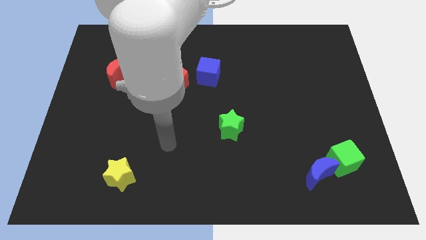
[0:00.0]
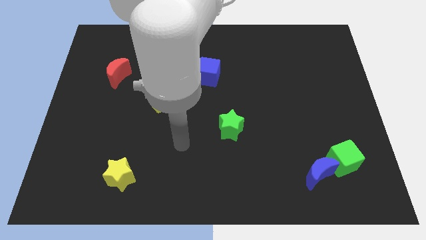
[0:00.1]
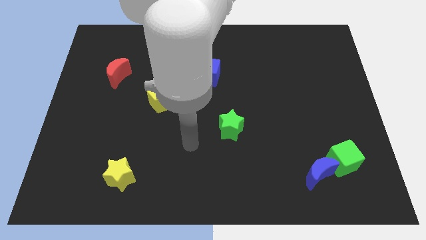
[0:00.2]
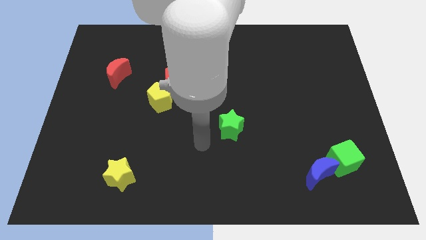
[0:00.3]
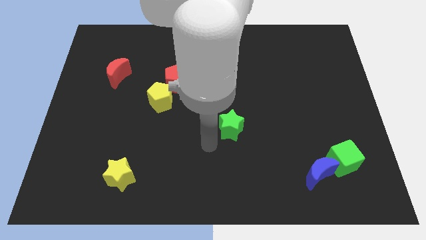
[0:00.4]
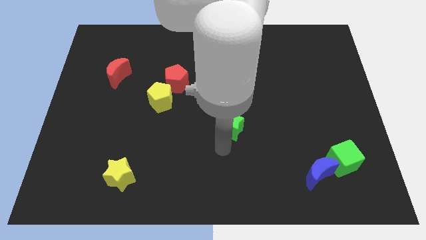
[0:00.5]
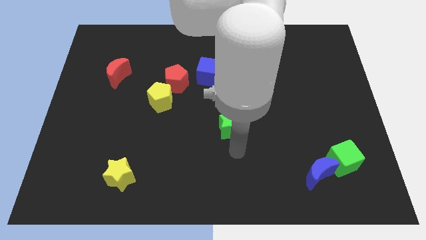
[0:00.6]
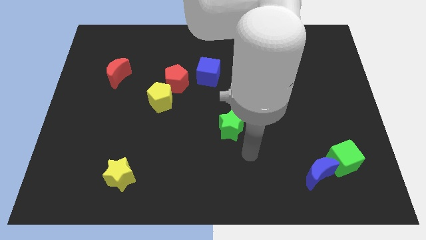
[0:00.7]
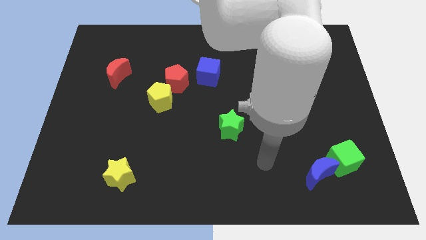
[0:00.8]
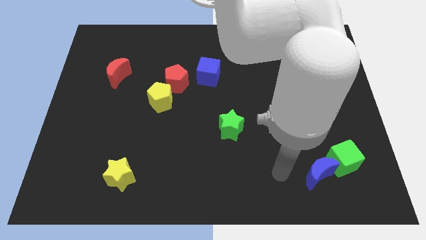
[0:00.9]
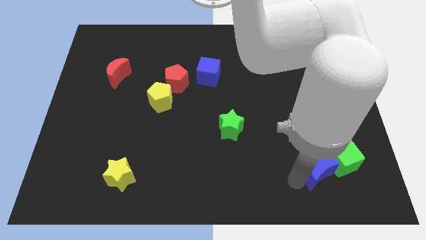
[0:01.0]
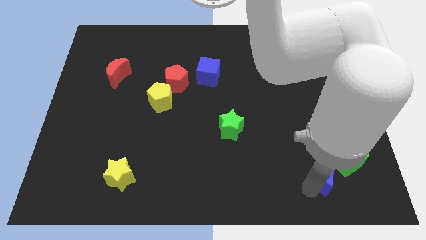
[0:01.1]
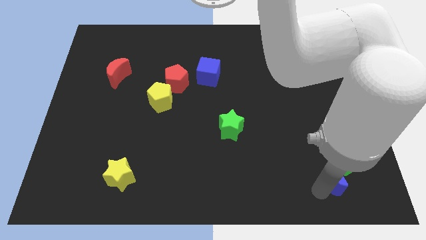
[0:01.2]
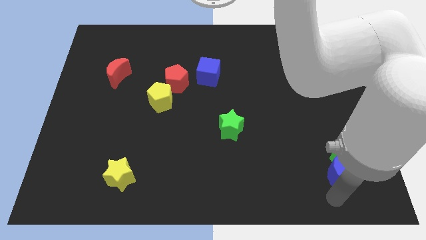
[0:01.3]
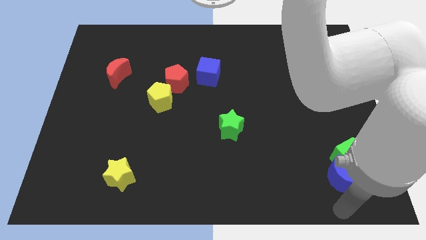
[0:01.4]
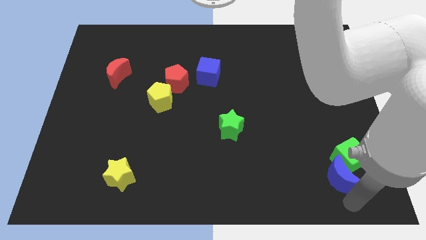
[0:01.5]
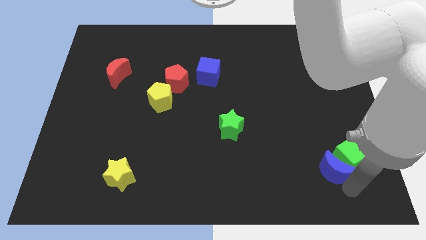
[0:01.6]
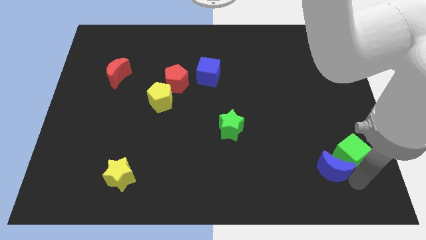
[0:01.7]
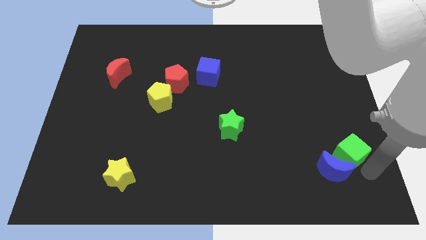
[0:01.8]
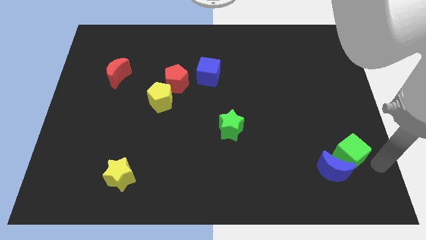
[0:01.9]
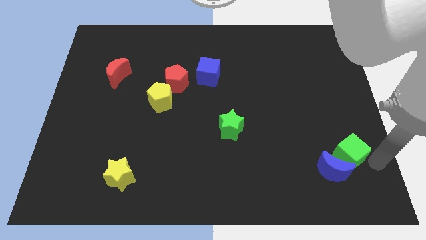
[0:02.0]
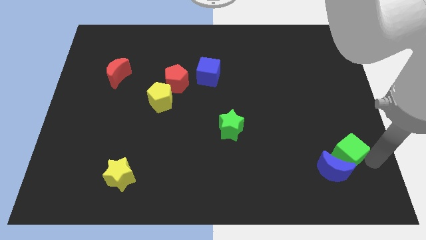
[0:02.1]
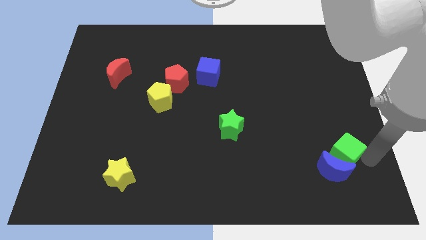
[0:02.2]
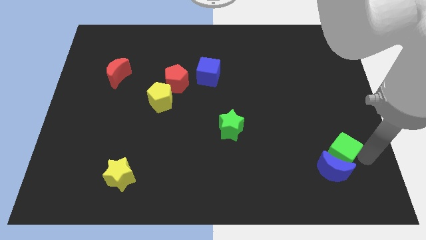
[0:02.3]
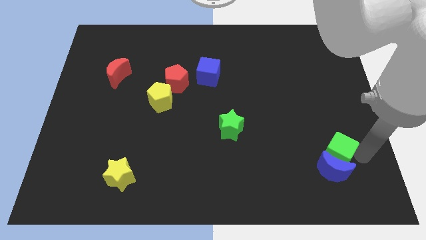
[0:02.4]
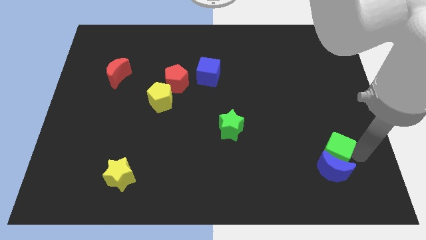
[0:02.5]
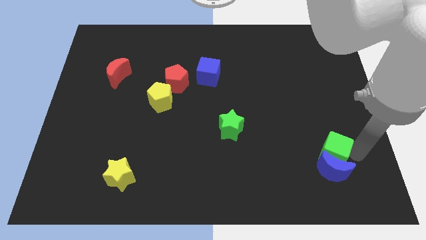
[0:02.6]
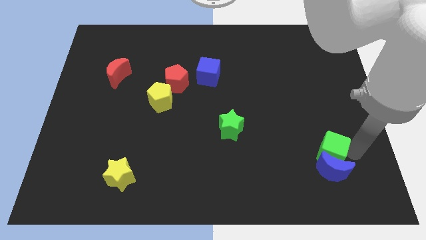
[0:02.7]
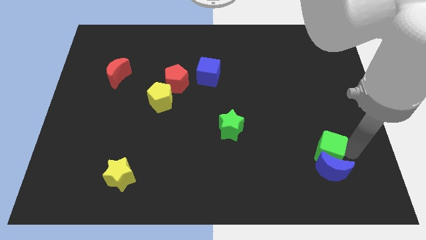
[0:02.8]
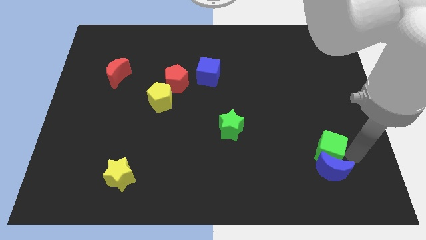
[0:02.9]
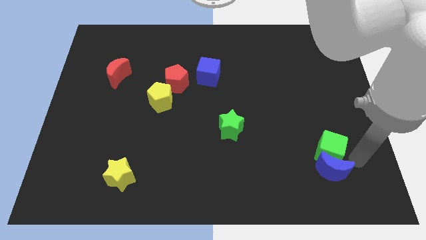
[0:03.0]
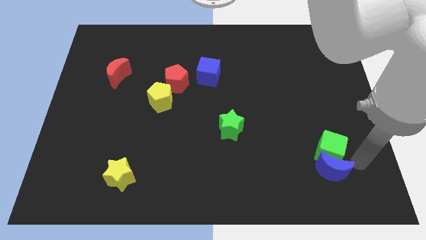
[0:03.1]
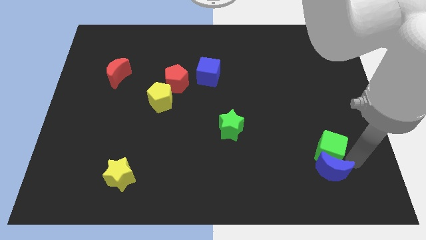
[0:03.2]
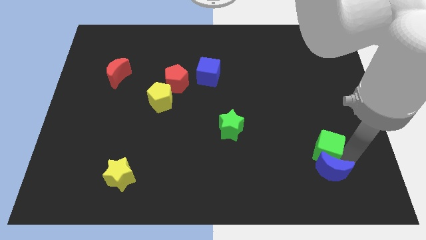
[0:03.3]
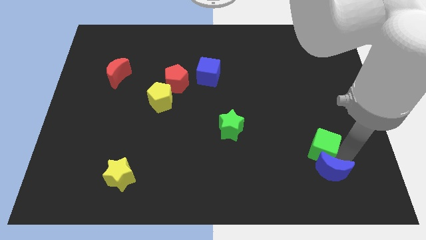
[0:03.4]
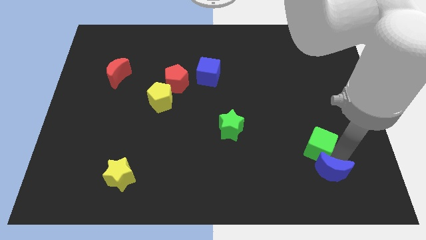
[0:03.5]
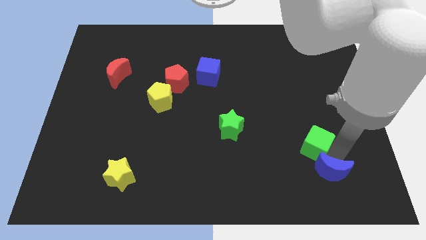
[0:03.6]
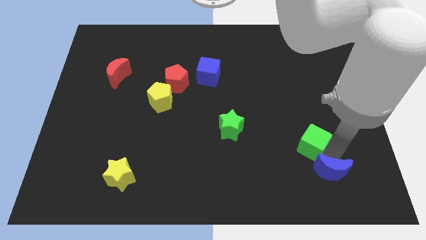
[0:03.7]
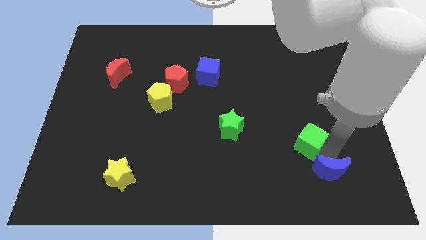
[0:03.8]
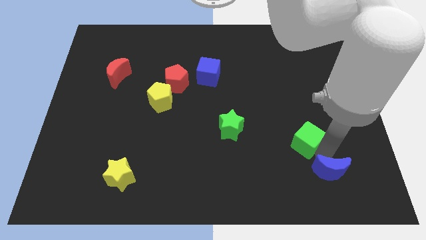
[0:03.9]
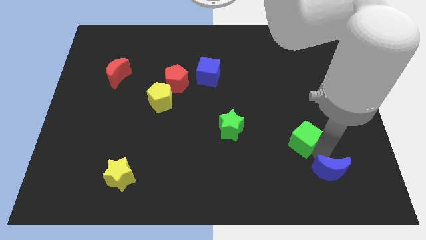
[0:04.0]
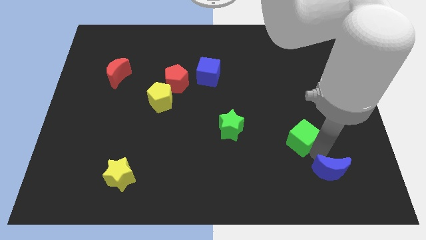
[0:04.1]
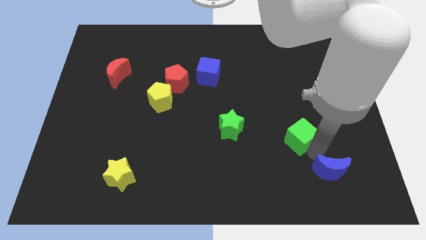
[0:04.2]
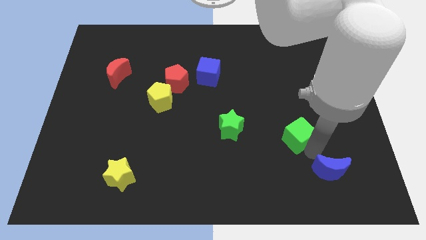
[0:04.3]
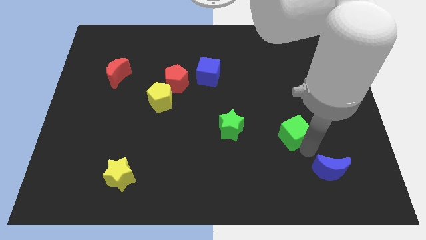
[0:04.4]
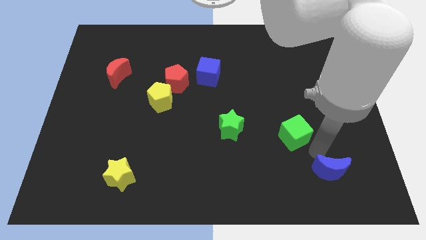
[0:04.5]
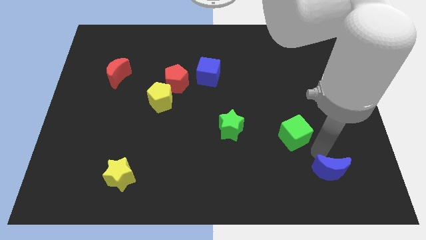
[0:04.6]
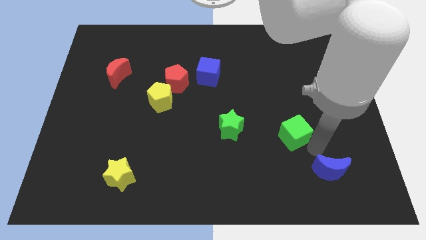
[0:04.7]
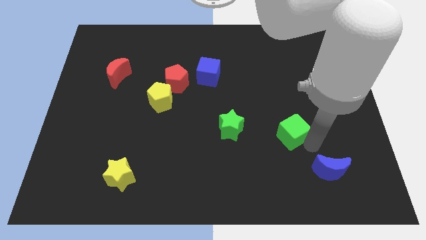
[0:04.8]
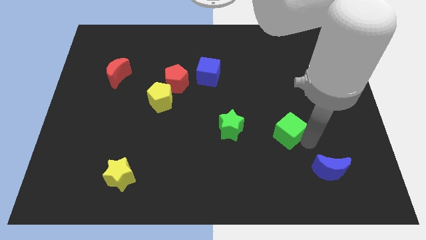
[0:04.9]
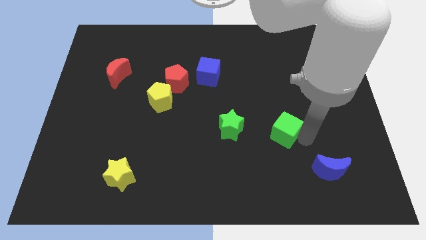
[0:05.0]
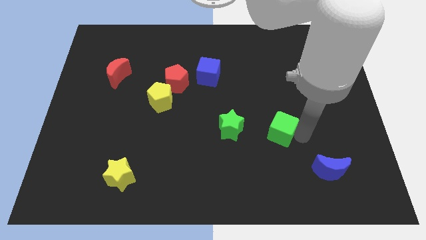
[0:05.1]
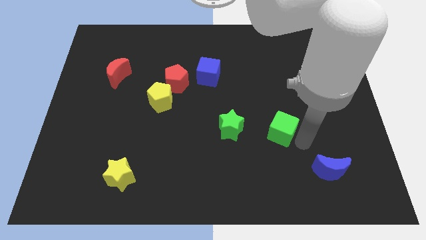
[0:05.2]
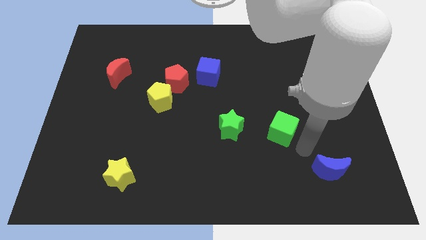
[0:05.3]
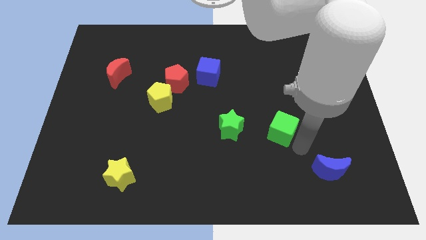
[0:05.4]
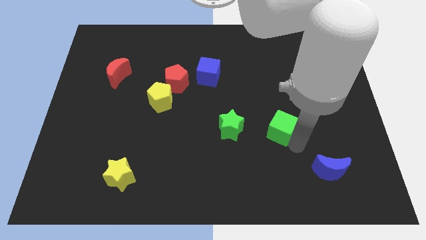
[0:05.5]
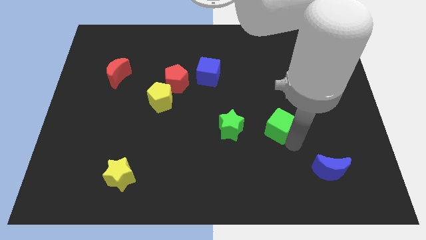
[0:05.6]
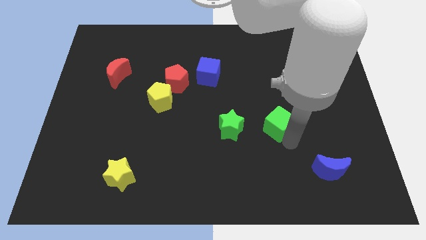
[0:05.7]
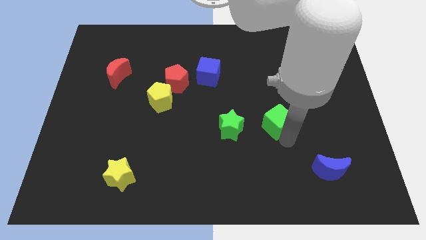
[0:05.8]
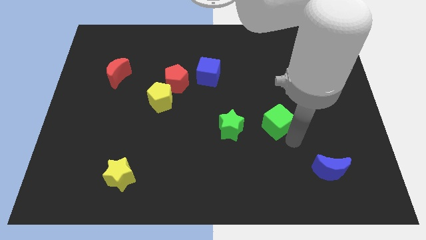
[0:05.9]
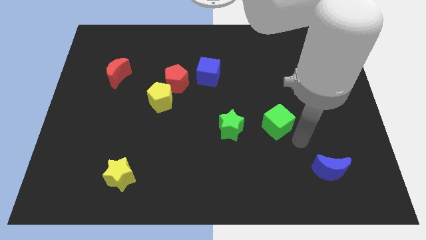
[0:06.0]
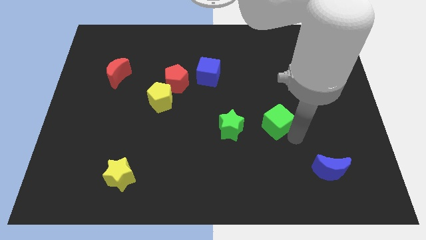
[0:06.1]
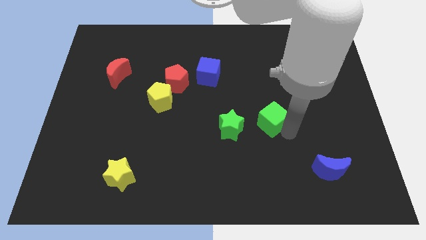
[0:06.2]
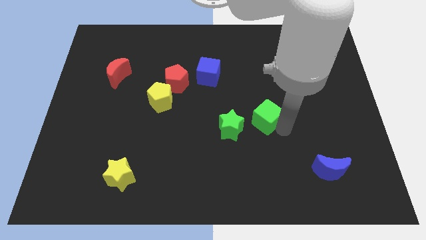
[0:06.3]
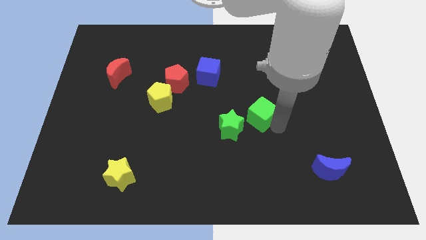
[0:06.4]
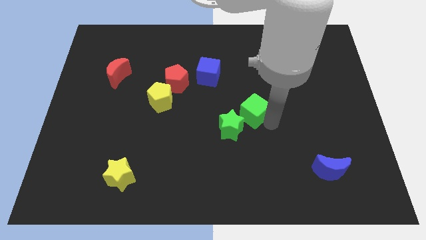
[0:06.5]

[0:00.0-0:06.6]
slide the green cube upwards and then left

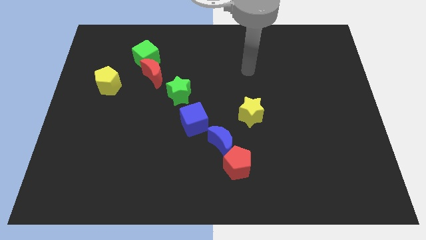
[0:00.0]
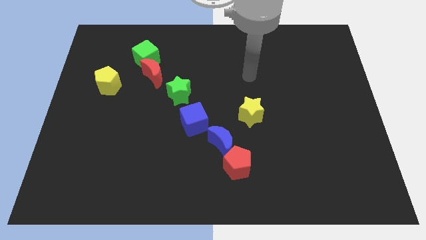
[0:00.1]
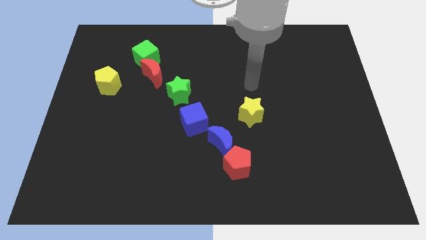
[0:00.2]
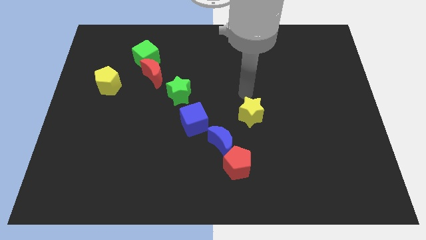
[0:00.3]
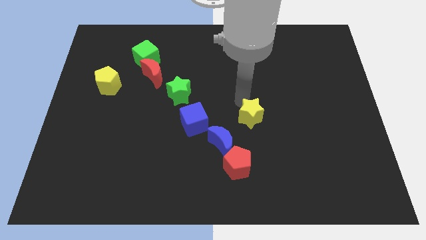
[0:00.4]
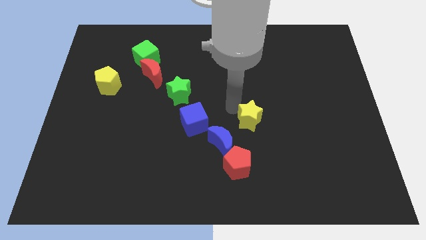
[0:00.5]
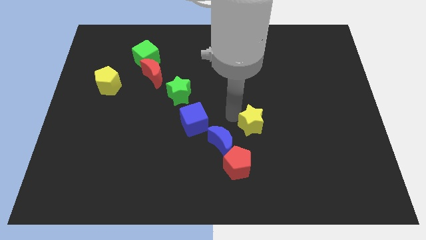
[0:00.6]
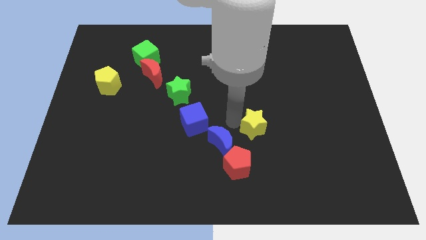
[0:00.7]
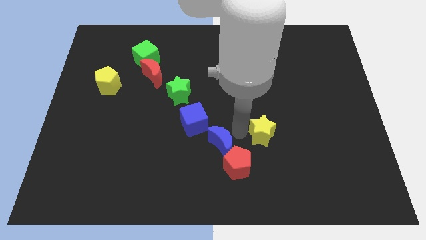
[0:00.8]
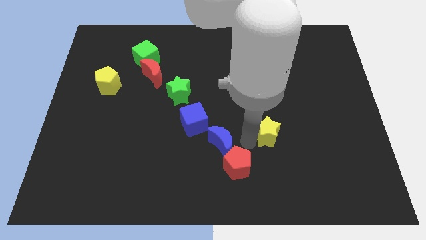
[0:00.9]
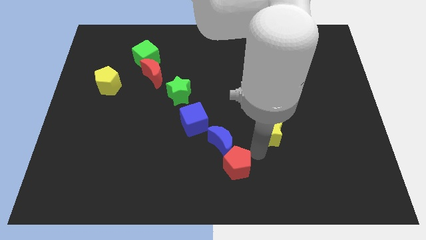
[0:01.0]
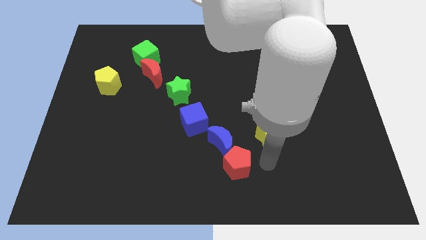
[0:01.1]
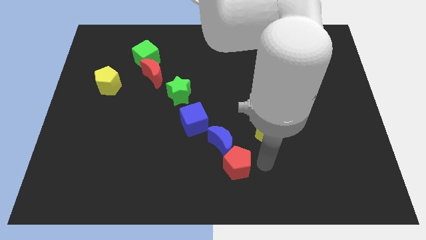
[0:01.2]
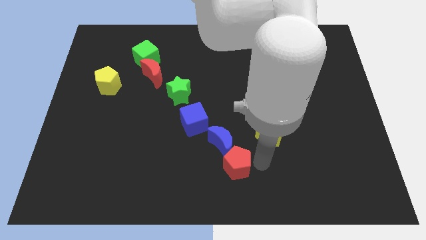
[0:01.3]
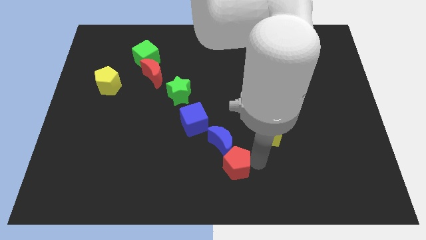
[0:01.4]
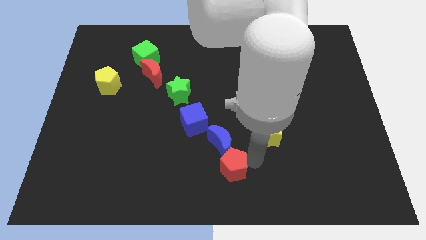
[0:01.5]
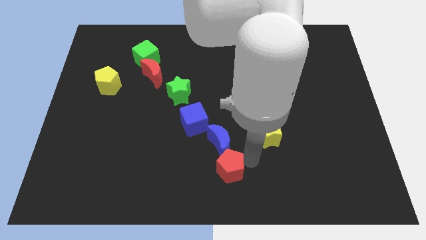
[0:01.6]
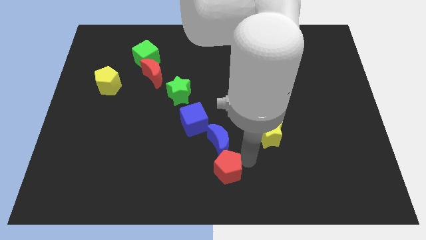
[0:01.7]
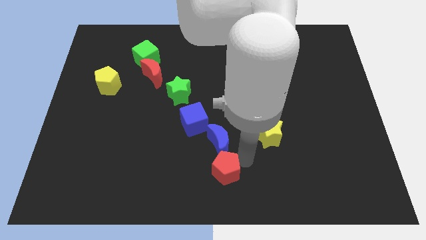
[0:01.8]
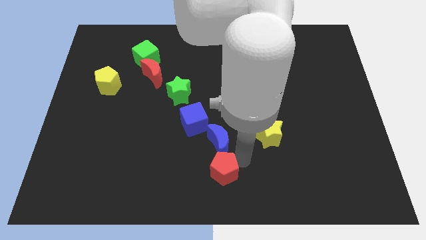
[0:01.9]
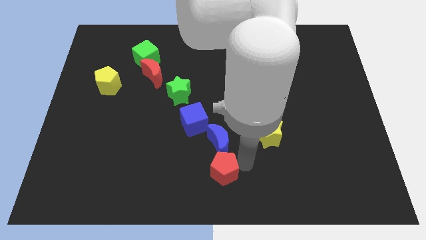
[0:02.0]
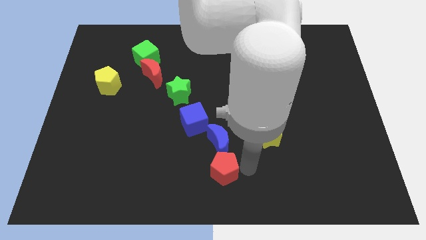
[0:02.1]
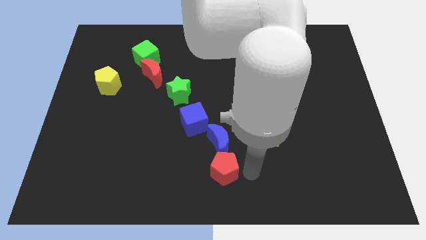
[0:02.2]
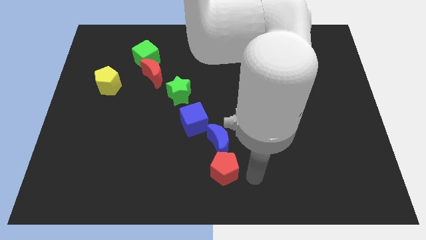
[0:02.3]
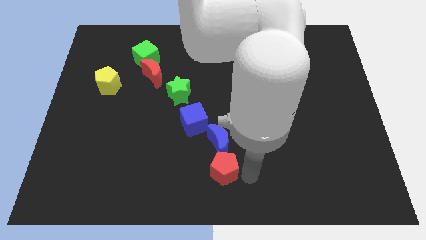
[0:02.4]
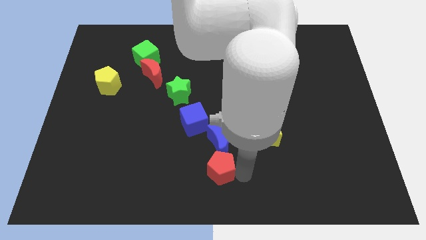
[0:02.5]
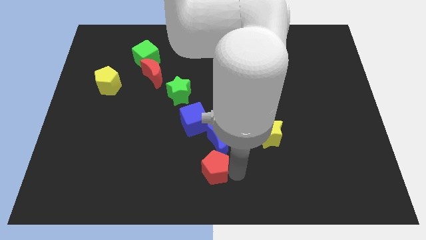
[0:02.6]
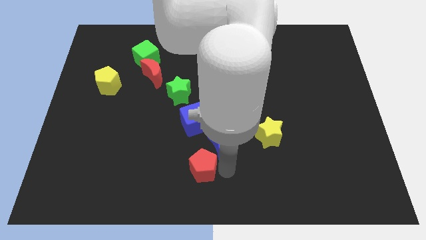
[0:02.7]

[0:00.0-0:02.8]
slightly push the red pentagon to the left
